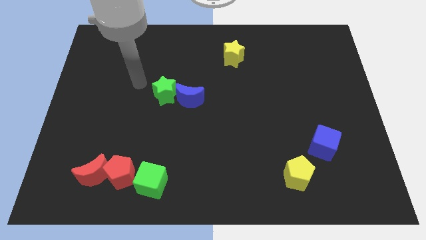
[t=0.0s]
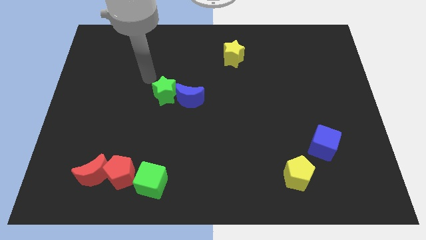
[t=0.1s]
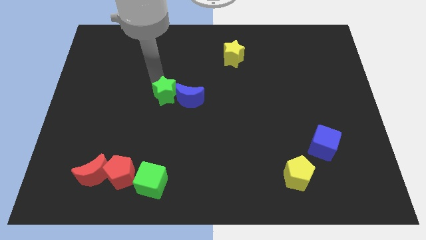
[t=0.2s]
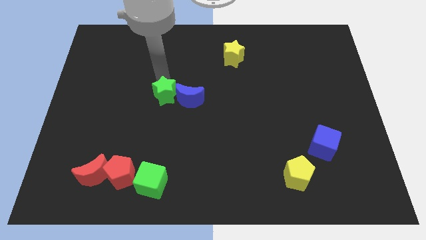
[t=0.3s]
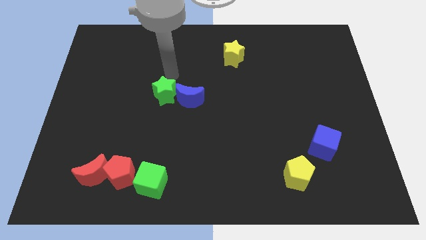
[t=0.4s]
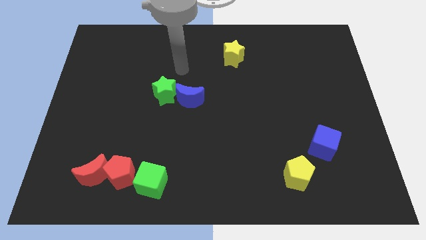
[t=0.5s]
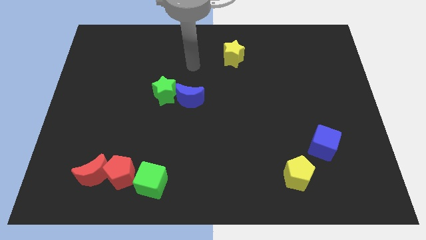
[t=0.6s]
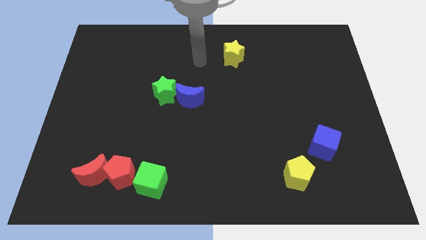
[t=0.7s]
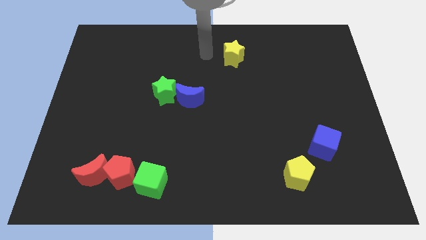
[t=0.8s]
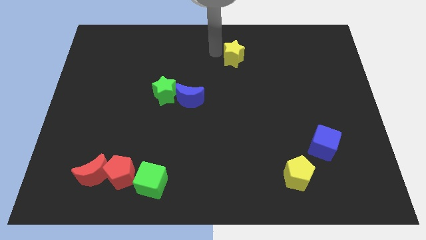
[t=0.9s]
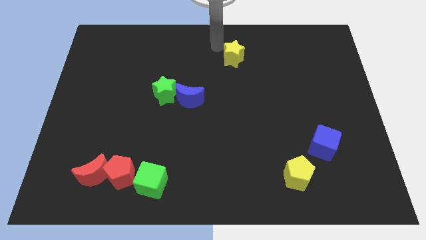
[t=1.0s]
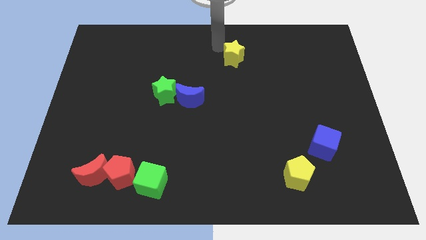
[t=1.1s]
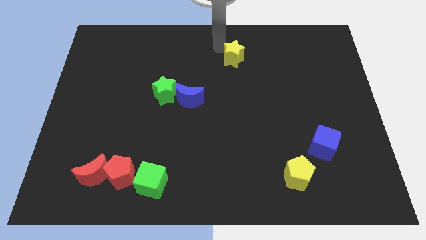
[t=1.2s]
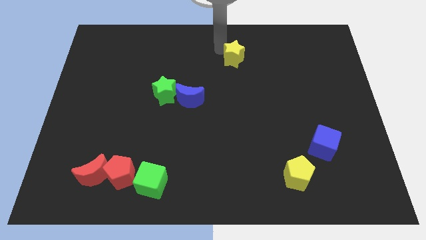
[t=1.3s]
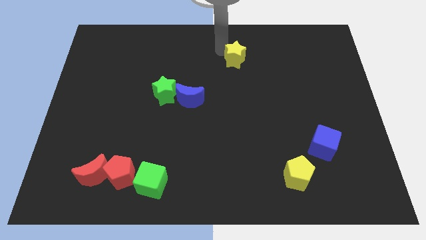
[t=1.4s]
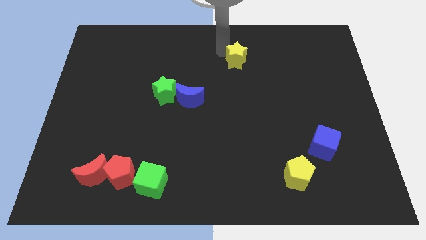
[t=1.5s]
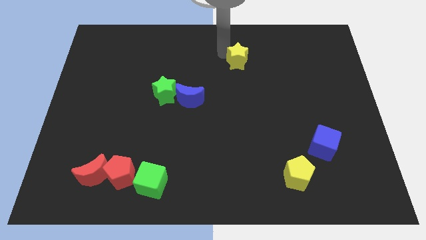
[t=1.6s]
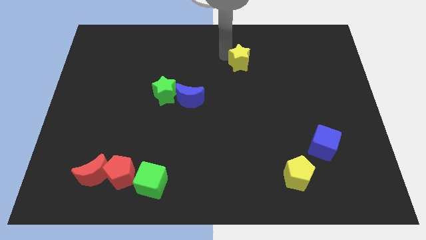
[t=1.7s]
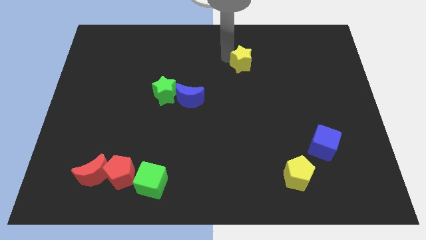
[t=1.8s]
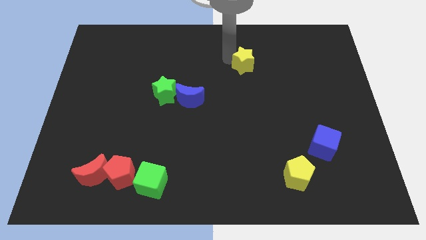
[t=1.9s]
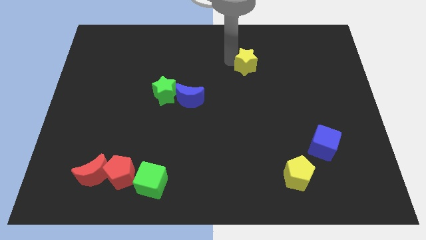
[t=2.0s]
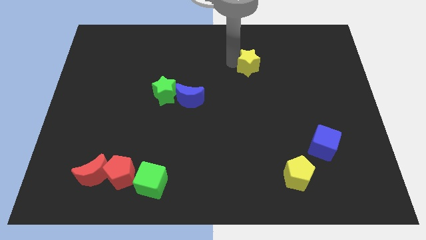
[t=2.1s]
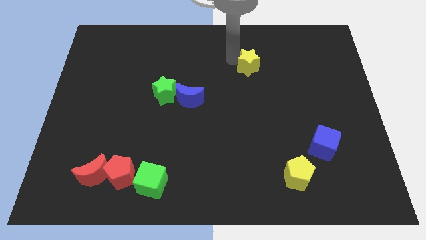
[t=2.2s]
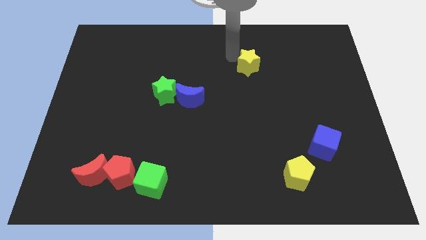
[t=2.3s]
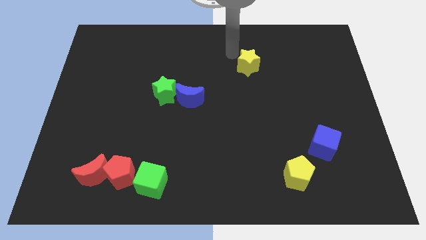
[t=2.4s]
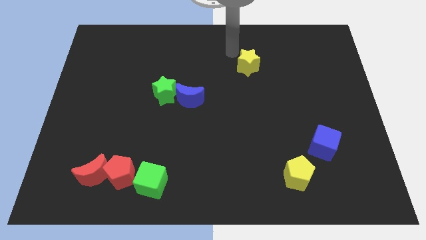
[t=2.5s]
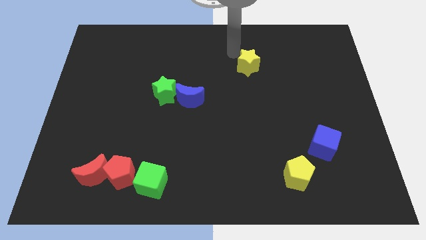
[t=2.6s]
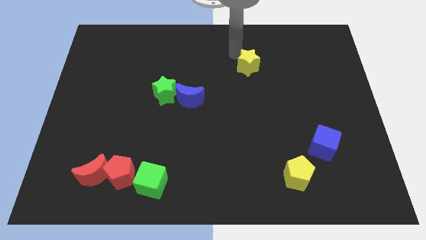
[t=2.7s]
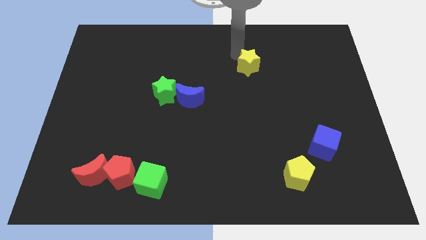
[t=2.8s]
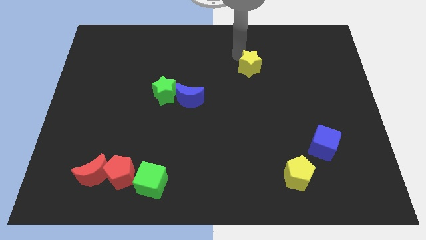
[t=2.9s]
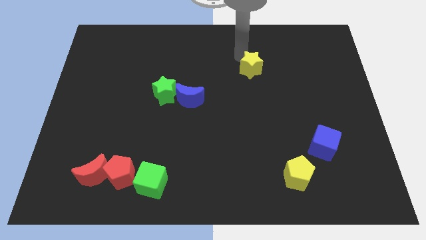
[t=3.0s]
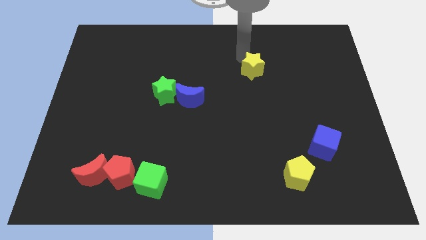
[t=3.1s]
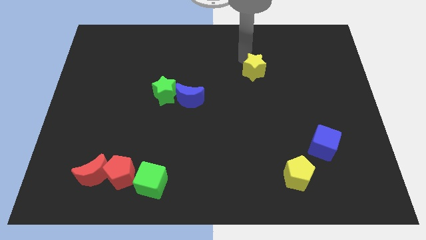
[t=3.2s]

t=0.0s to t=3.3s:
move the yellow star a bit downwards and then right

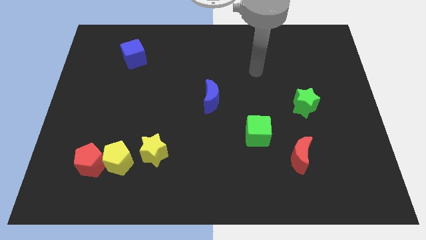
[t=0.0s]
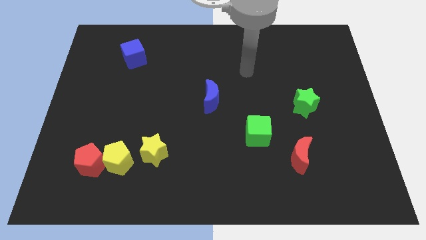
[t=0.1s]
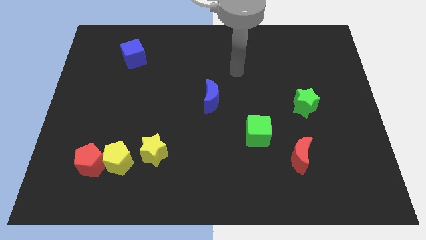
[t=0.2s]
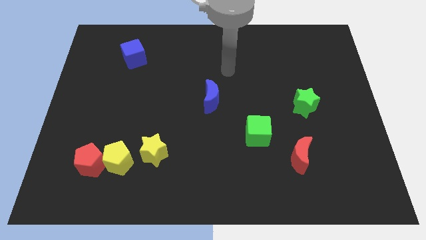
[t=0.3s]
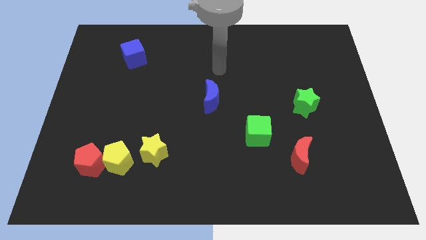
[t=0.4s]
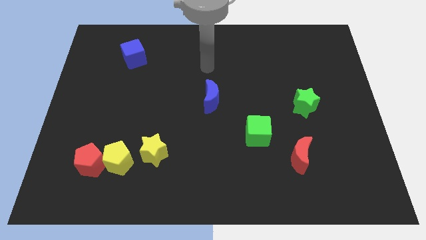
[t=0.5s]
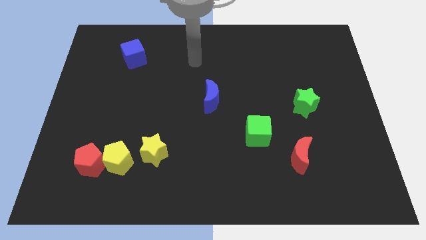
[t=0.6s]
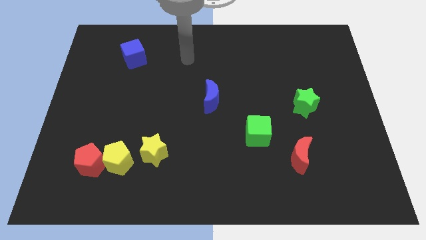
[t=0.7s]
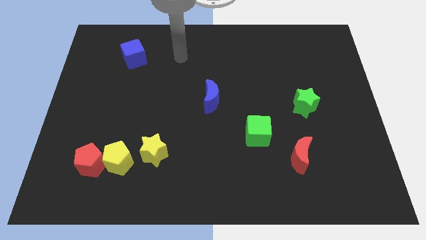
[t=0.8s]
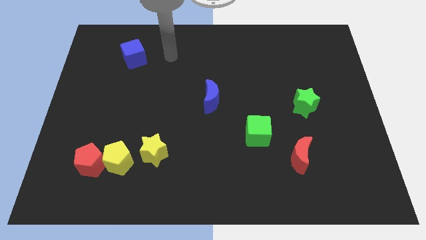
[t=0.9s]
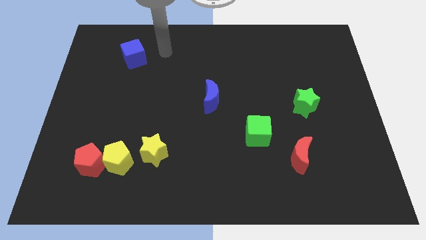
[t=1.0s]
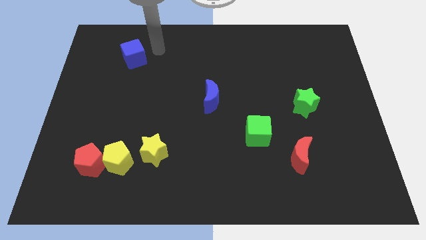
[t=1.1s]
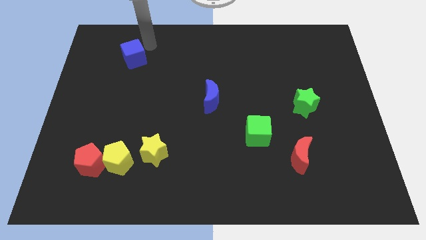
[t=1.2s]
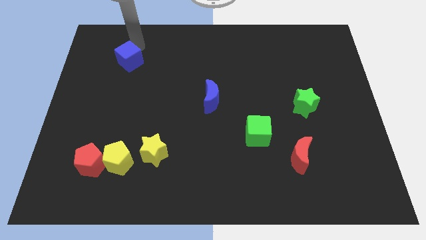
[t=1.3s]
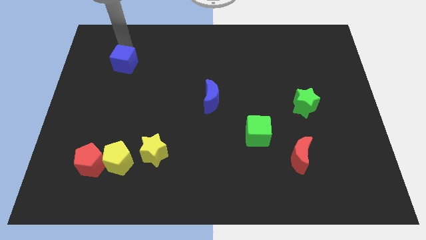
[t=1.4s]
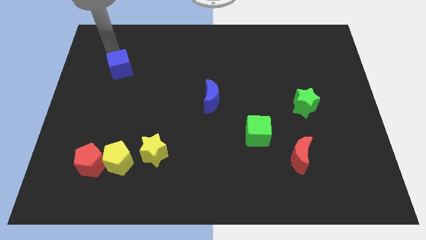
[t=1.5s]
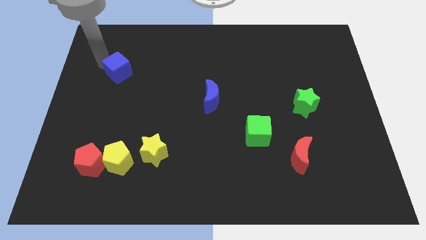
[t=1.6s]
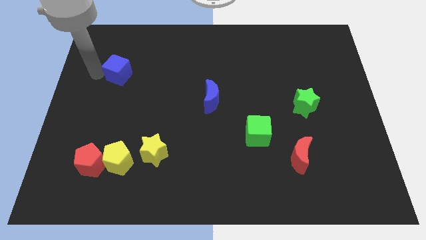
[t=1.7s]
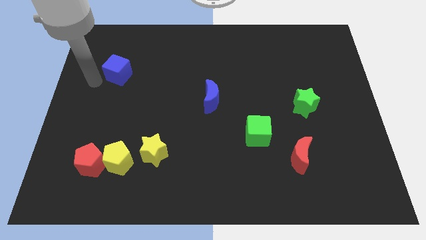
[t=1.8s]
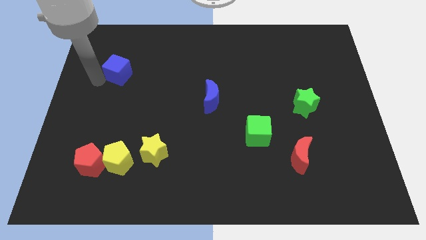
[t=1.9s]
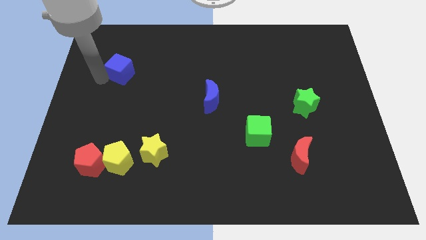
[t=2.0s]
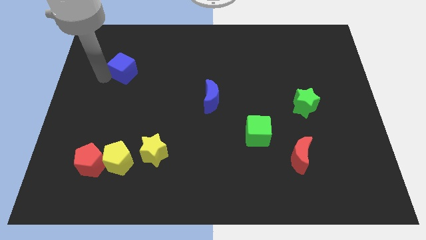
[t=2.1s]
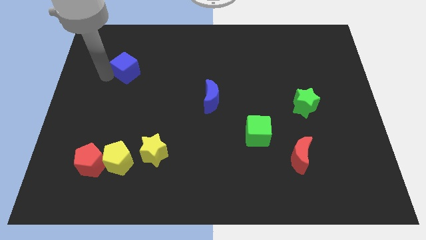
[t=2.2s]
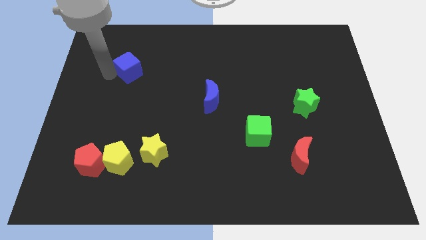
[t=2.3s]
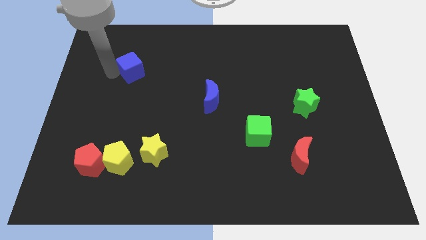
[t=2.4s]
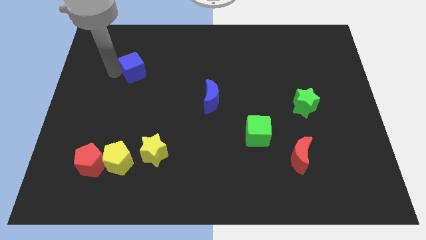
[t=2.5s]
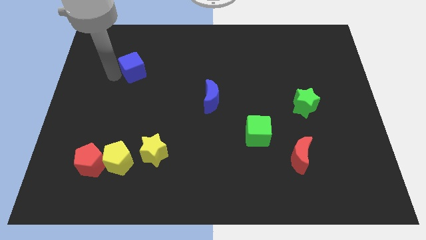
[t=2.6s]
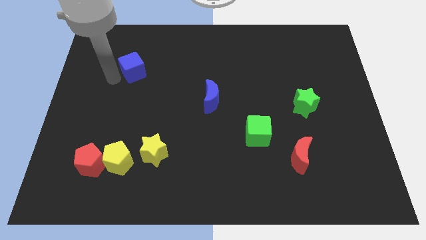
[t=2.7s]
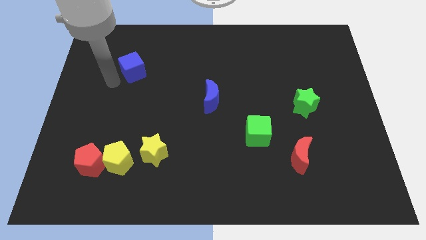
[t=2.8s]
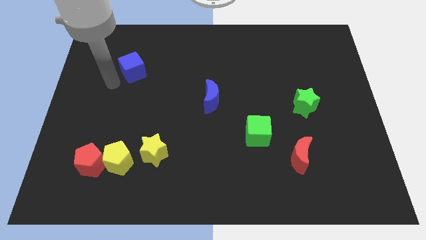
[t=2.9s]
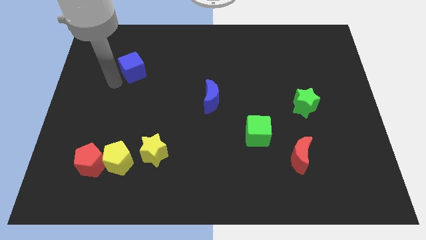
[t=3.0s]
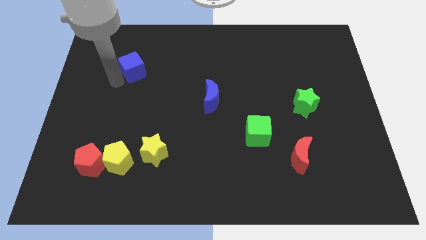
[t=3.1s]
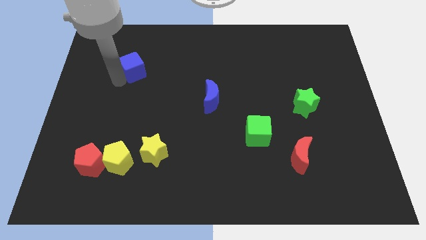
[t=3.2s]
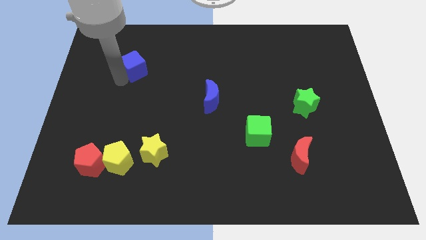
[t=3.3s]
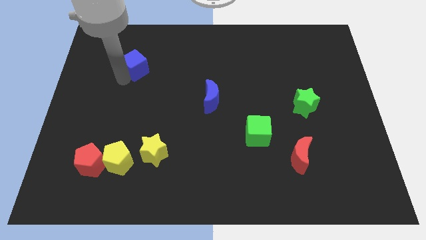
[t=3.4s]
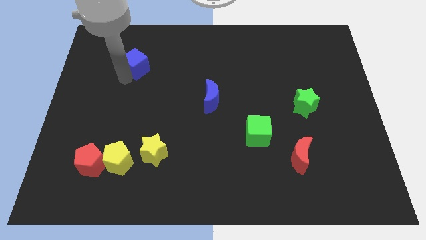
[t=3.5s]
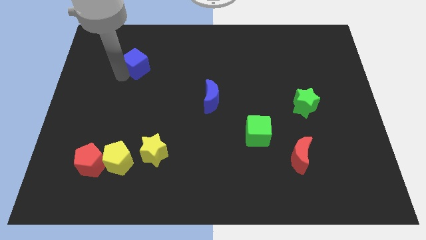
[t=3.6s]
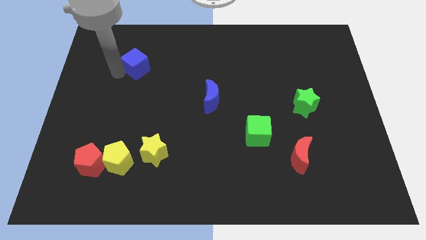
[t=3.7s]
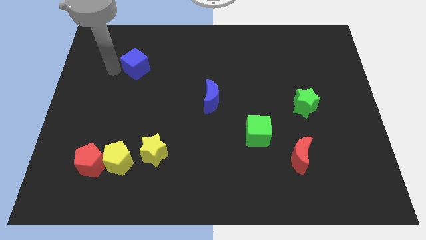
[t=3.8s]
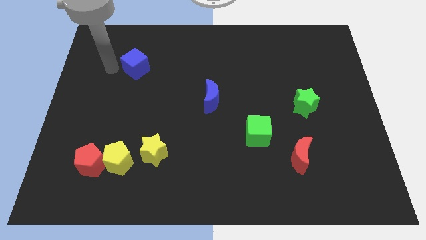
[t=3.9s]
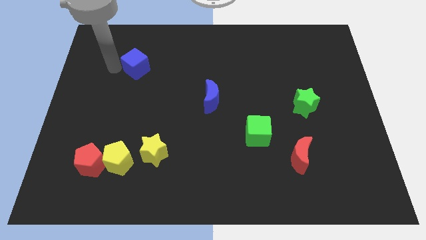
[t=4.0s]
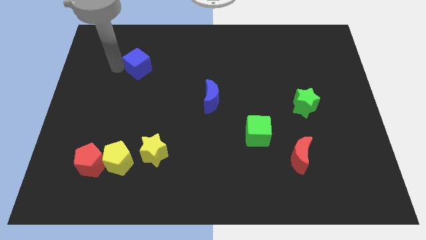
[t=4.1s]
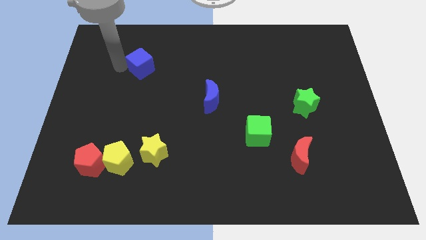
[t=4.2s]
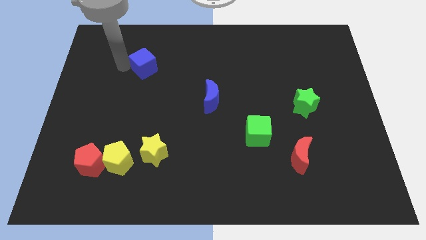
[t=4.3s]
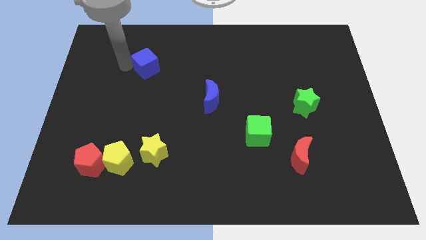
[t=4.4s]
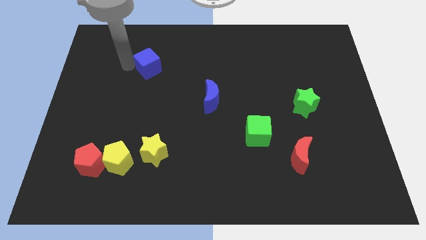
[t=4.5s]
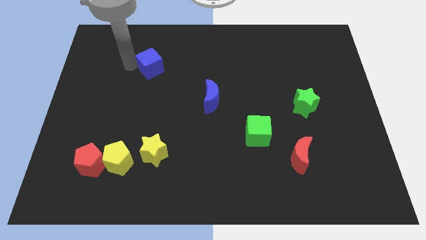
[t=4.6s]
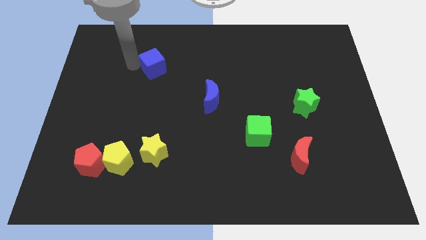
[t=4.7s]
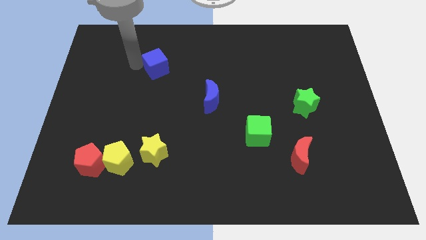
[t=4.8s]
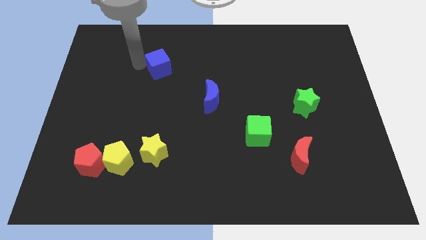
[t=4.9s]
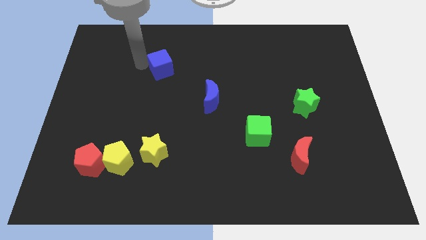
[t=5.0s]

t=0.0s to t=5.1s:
slide the blue cube to the right a bit

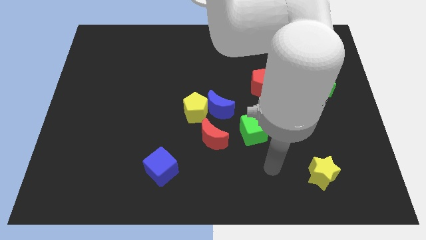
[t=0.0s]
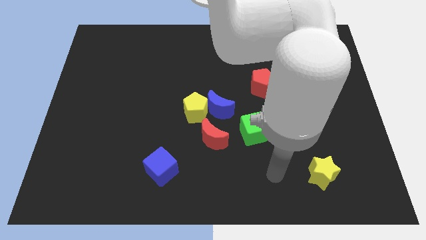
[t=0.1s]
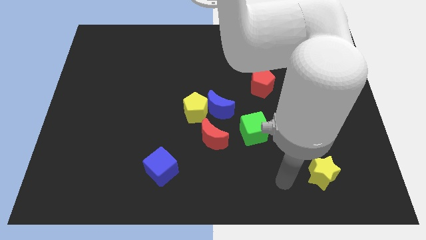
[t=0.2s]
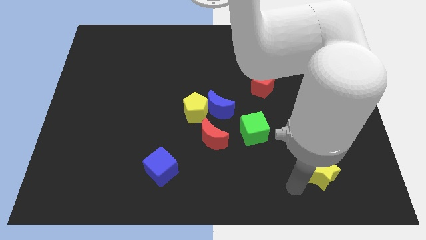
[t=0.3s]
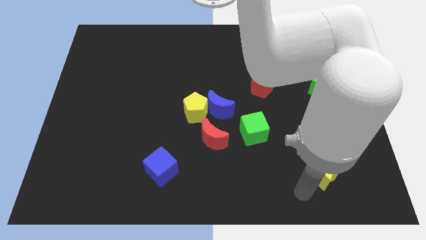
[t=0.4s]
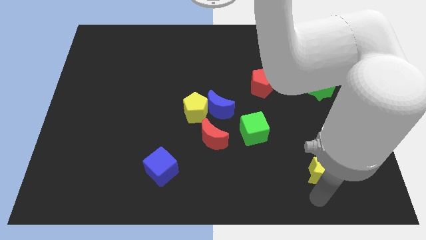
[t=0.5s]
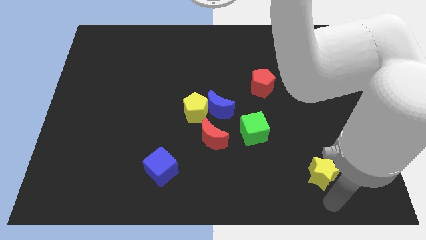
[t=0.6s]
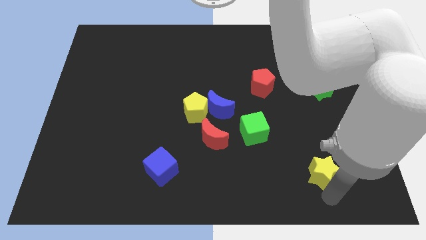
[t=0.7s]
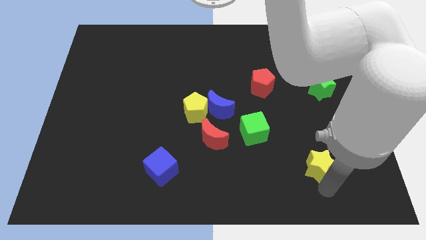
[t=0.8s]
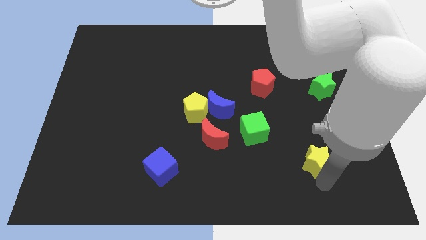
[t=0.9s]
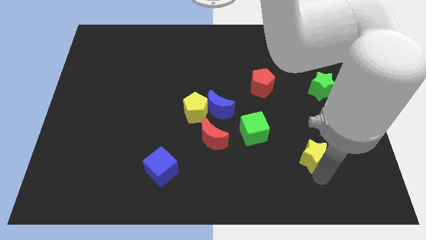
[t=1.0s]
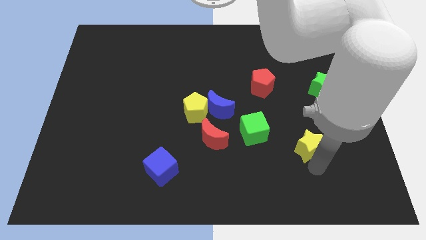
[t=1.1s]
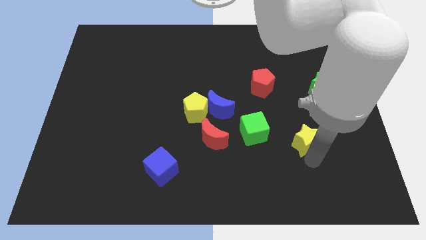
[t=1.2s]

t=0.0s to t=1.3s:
slide the yellow star somewhat up
